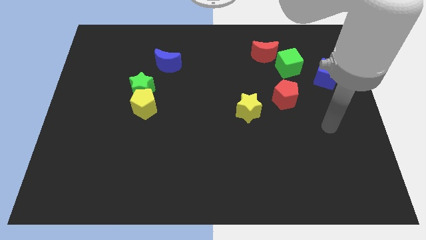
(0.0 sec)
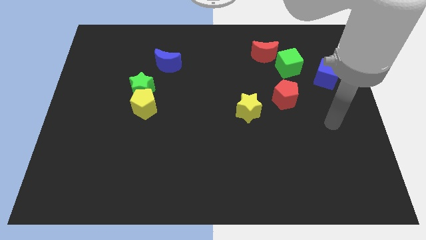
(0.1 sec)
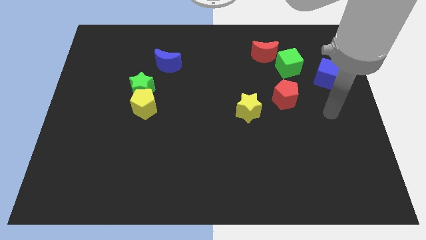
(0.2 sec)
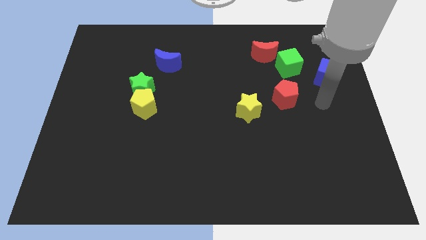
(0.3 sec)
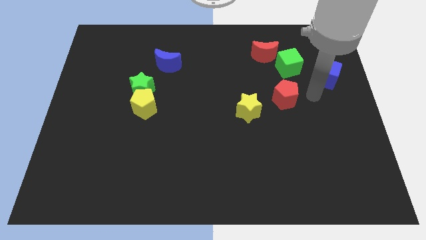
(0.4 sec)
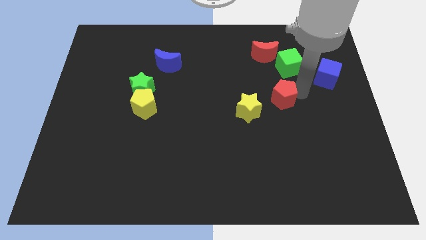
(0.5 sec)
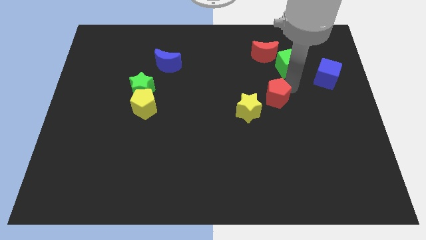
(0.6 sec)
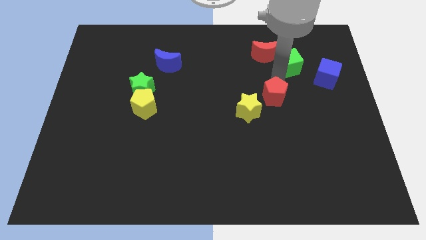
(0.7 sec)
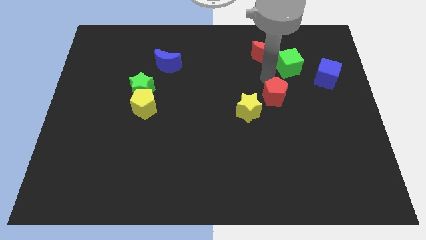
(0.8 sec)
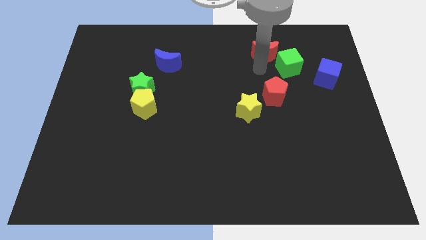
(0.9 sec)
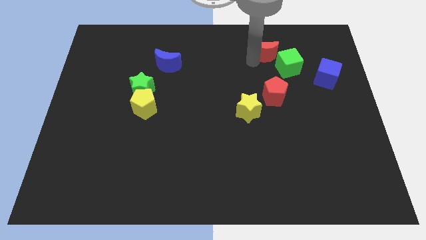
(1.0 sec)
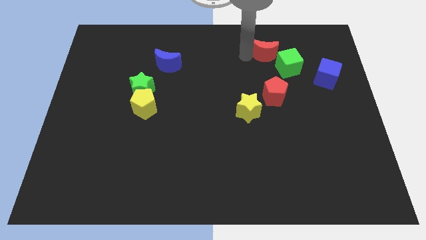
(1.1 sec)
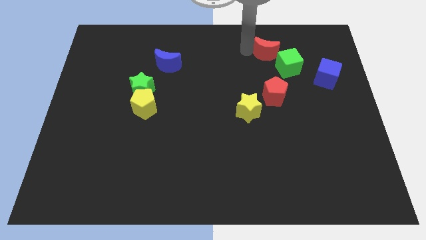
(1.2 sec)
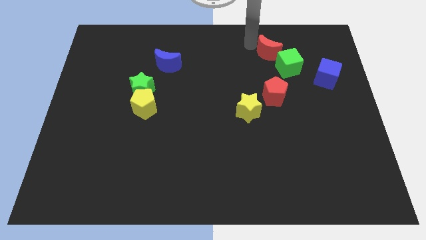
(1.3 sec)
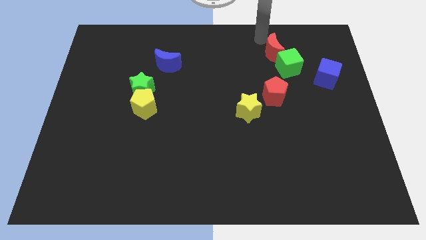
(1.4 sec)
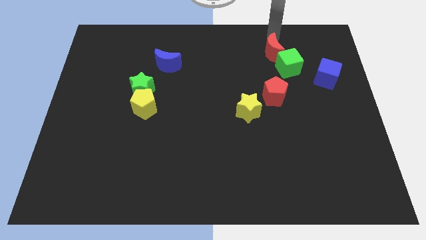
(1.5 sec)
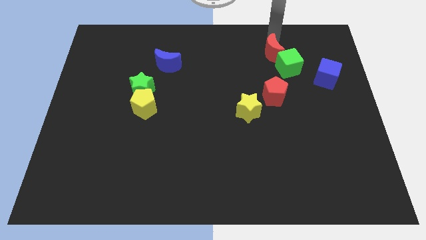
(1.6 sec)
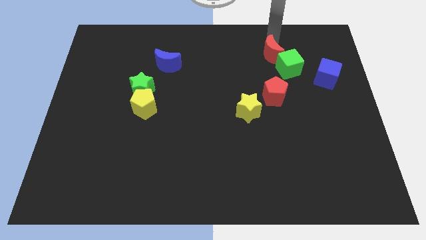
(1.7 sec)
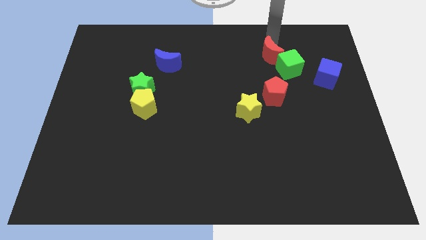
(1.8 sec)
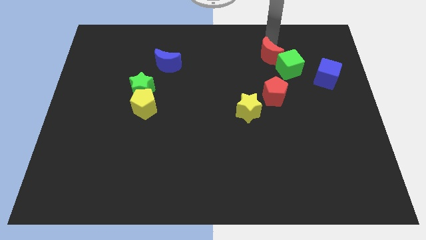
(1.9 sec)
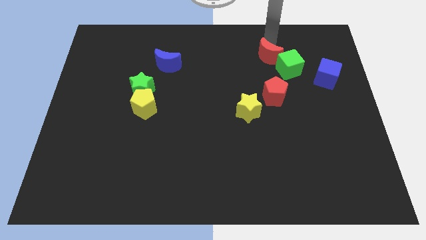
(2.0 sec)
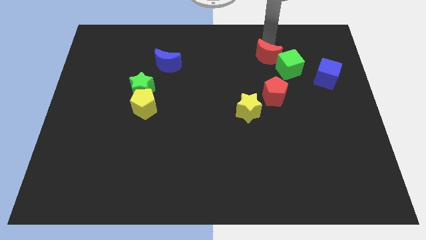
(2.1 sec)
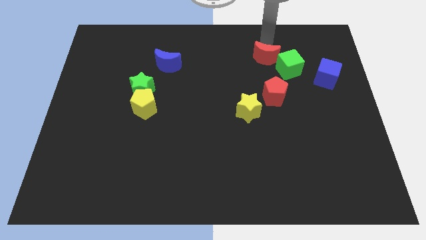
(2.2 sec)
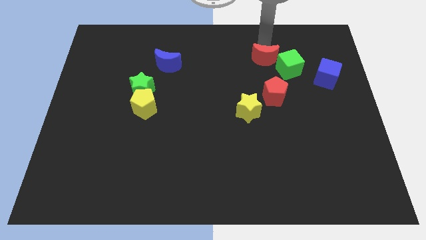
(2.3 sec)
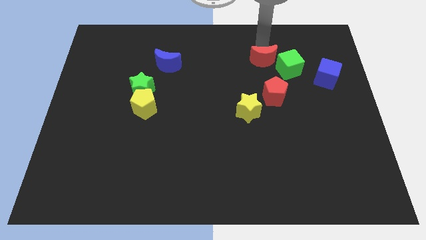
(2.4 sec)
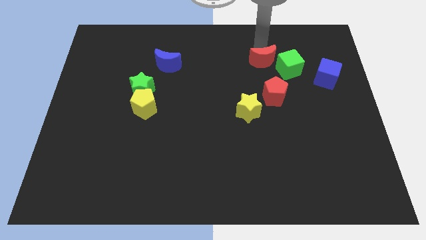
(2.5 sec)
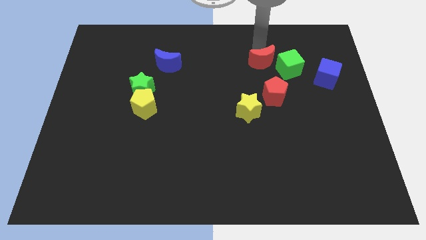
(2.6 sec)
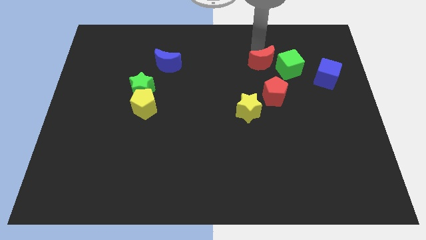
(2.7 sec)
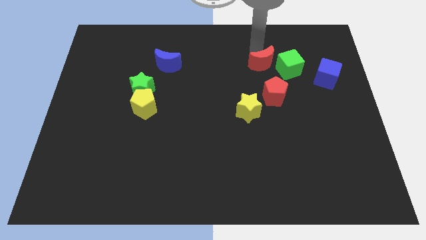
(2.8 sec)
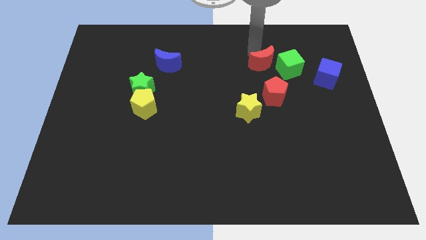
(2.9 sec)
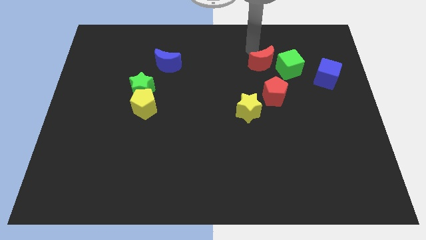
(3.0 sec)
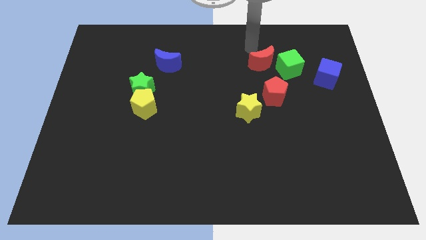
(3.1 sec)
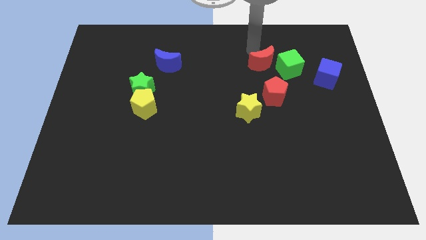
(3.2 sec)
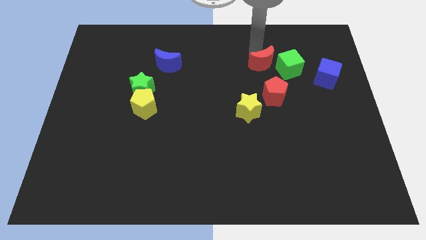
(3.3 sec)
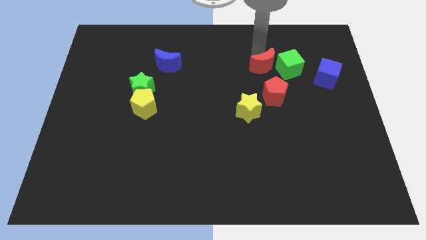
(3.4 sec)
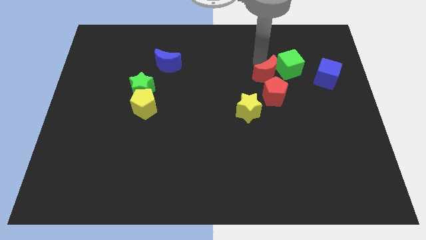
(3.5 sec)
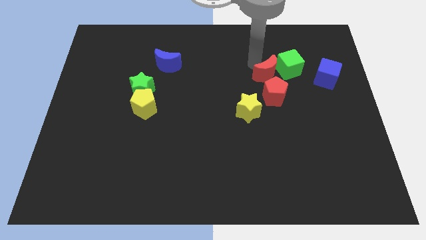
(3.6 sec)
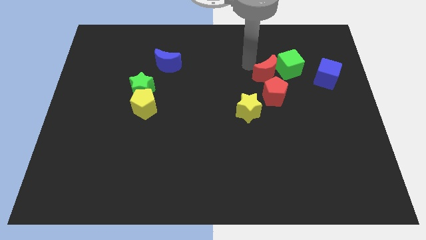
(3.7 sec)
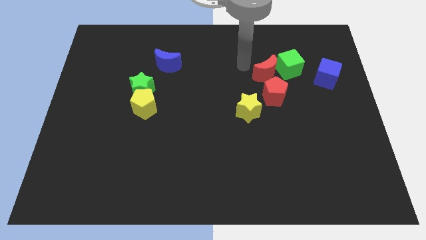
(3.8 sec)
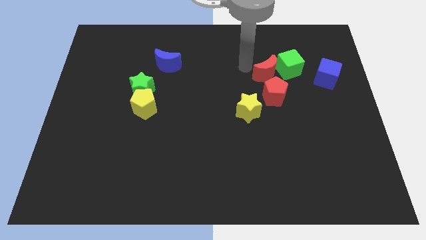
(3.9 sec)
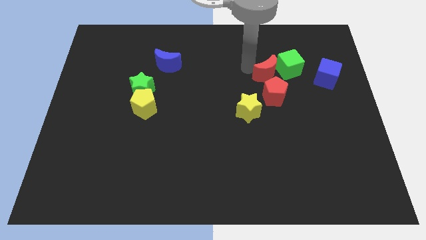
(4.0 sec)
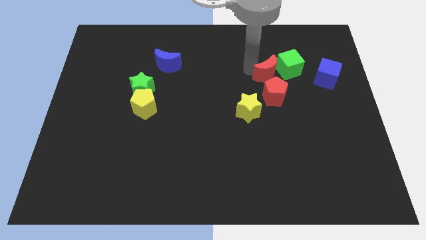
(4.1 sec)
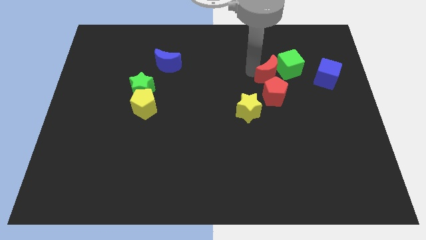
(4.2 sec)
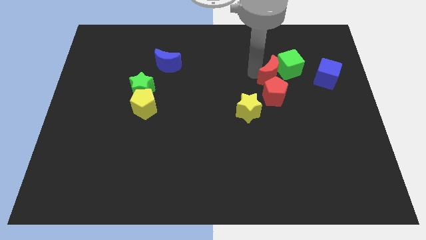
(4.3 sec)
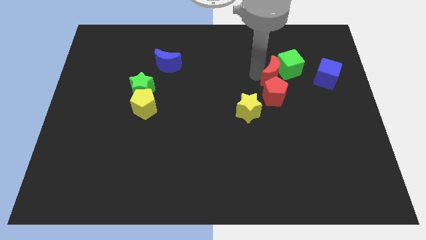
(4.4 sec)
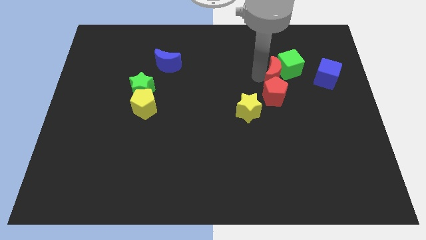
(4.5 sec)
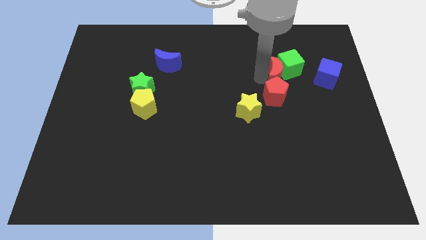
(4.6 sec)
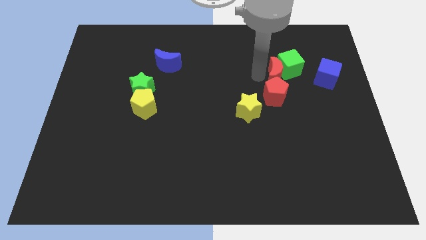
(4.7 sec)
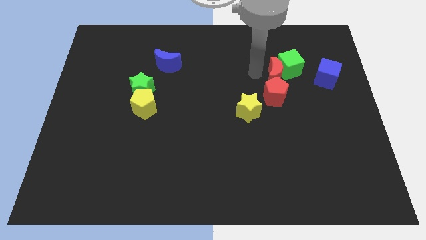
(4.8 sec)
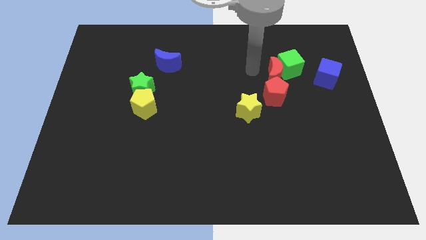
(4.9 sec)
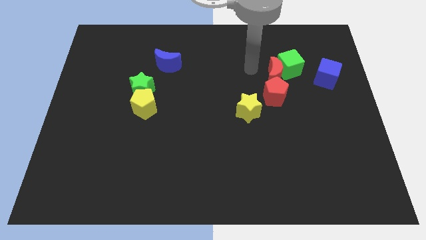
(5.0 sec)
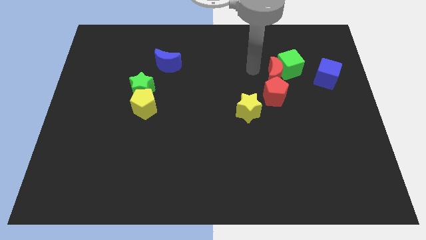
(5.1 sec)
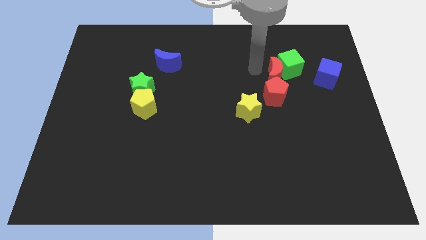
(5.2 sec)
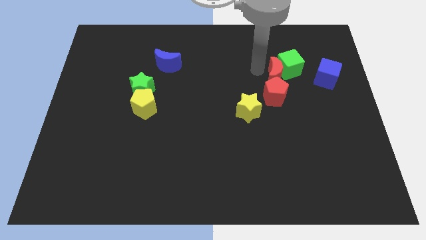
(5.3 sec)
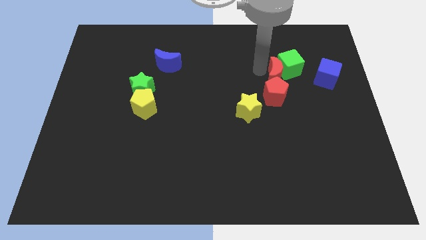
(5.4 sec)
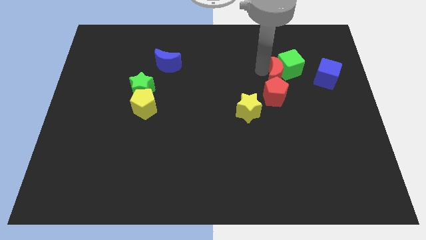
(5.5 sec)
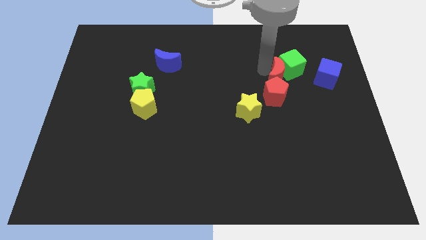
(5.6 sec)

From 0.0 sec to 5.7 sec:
slightly slide the red moon down and to the right

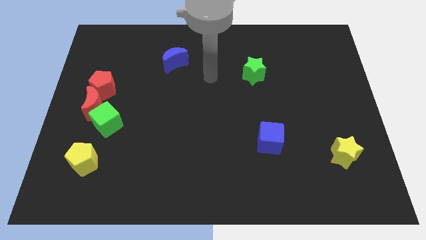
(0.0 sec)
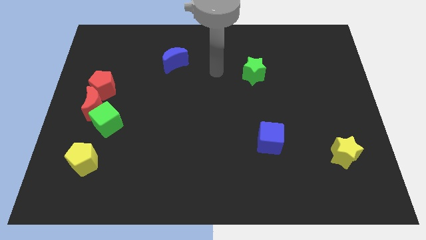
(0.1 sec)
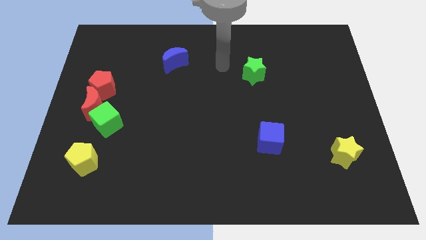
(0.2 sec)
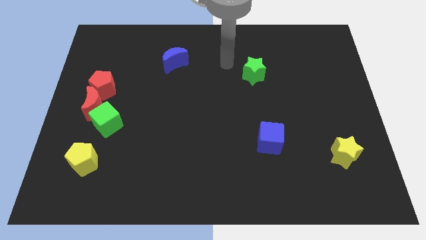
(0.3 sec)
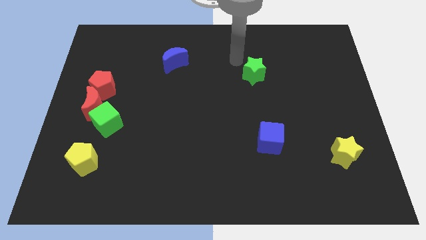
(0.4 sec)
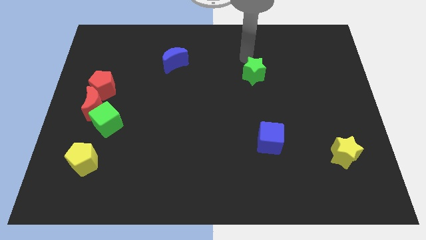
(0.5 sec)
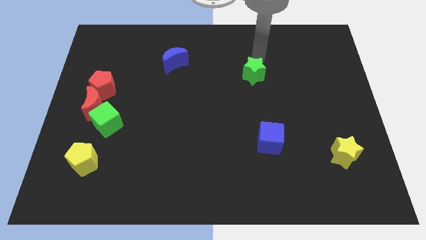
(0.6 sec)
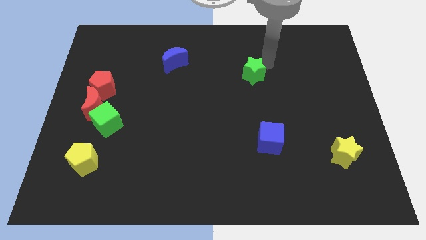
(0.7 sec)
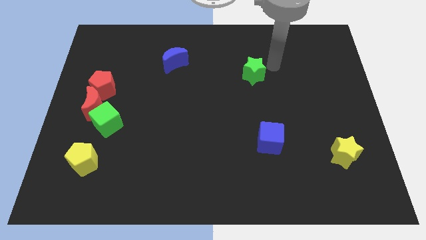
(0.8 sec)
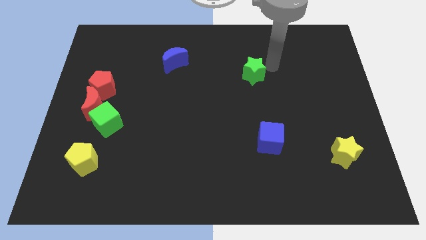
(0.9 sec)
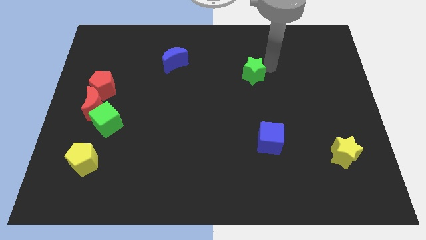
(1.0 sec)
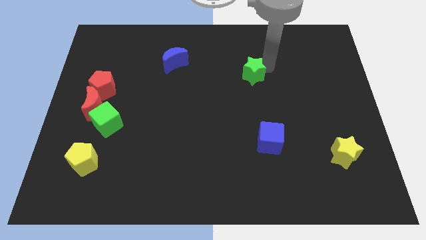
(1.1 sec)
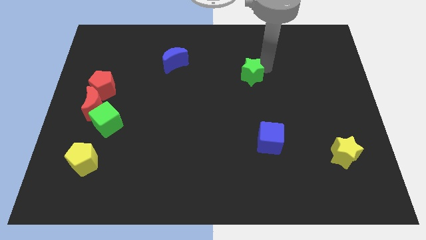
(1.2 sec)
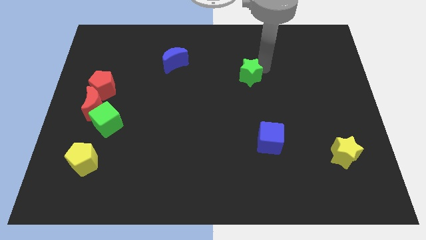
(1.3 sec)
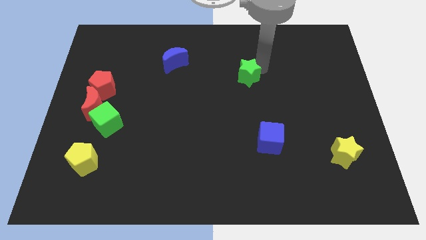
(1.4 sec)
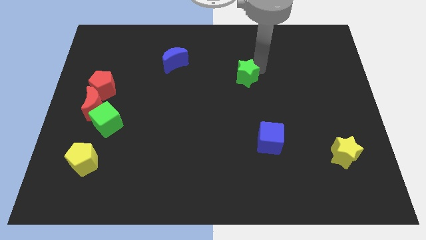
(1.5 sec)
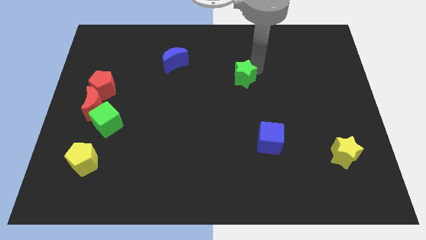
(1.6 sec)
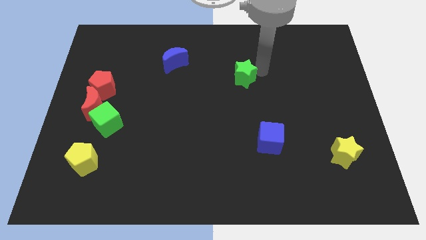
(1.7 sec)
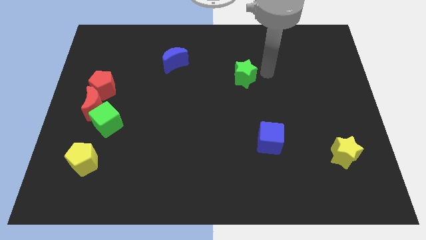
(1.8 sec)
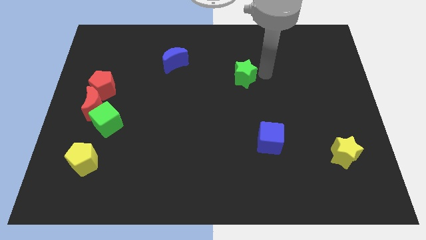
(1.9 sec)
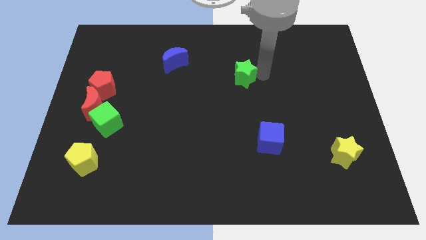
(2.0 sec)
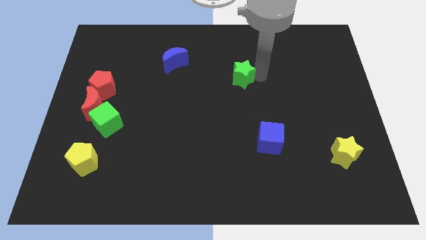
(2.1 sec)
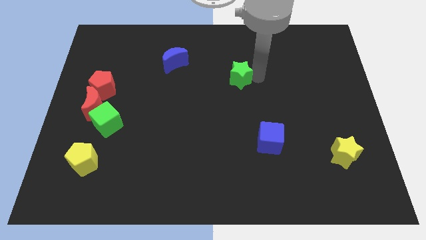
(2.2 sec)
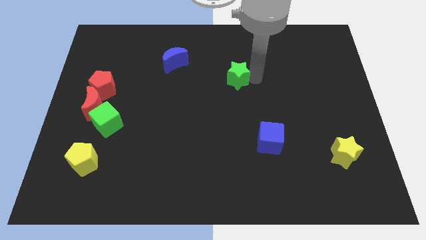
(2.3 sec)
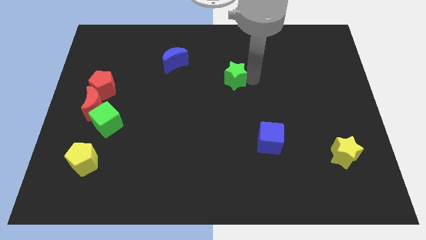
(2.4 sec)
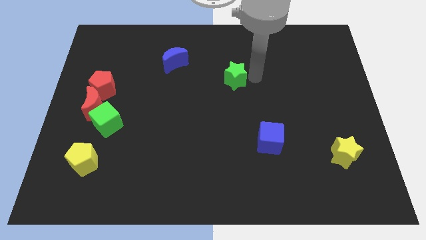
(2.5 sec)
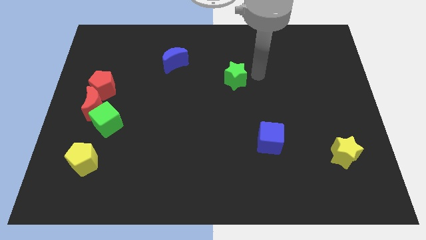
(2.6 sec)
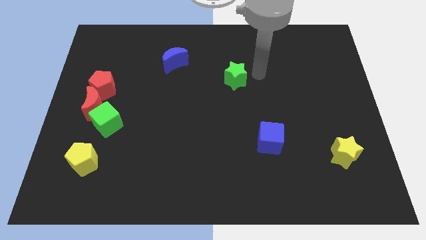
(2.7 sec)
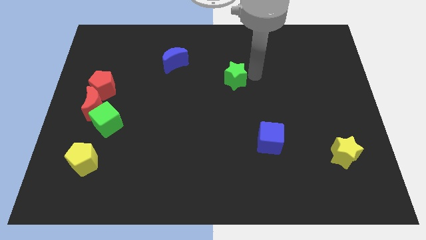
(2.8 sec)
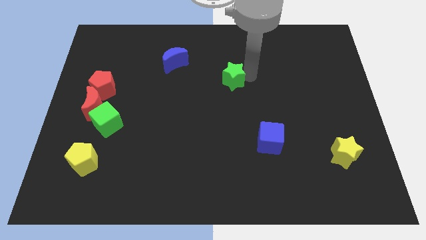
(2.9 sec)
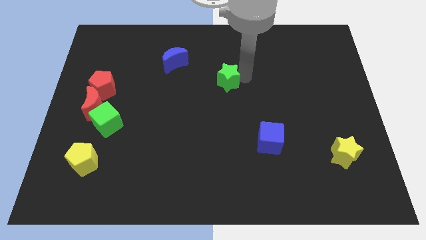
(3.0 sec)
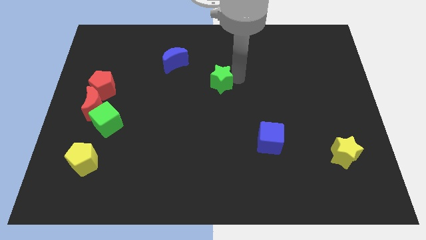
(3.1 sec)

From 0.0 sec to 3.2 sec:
slide the green star to the left slightly
